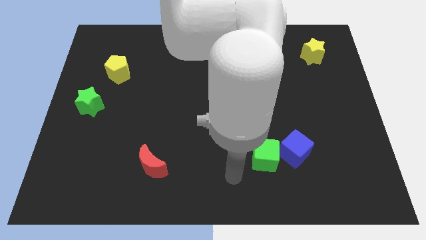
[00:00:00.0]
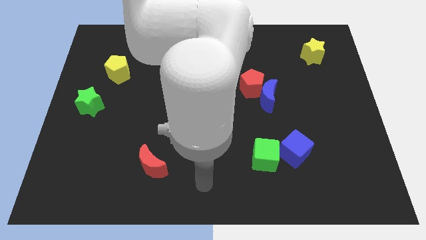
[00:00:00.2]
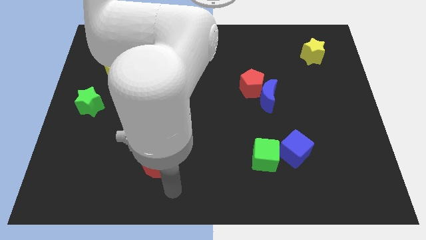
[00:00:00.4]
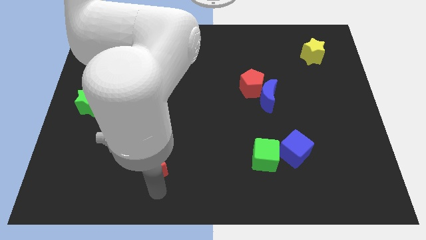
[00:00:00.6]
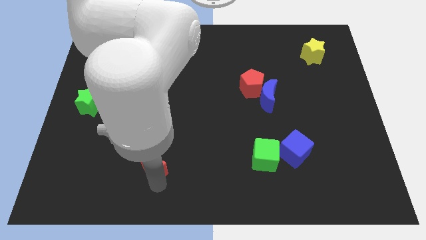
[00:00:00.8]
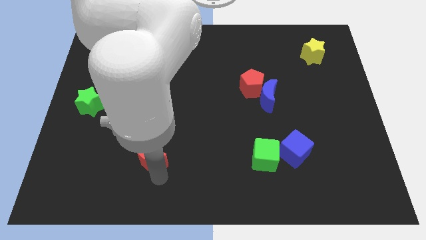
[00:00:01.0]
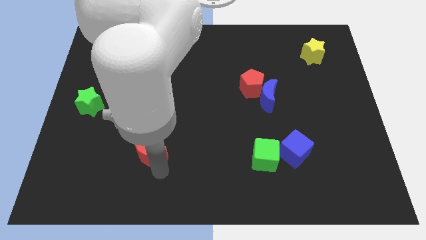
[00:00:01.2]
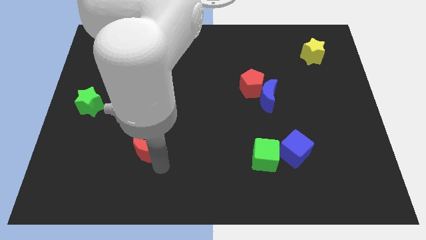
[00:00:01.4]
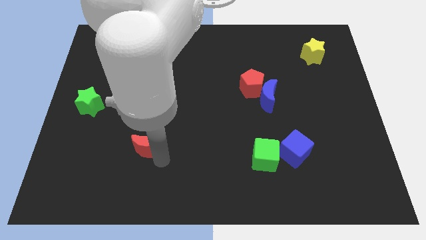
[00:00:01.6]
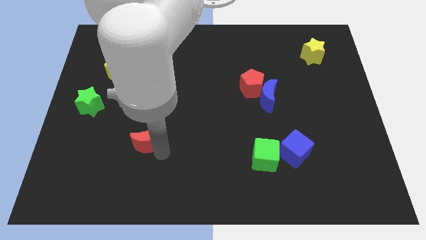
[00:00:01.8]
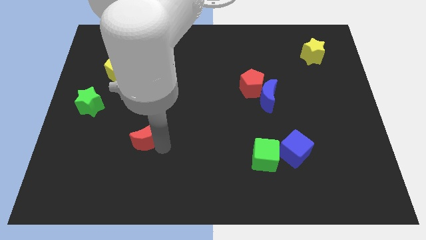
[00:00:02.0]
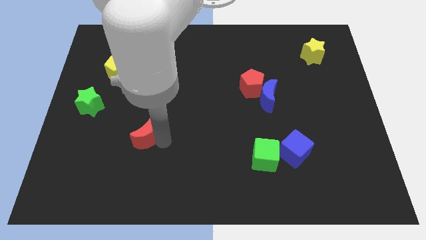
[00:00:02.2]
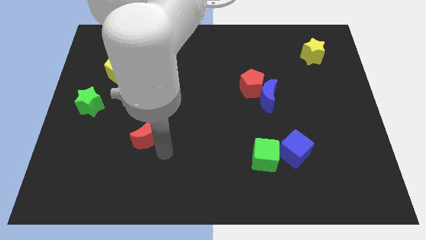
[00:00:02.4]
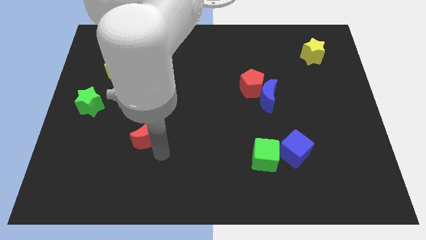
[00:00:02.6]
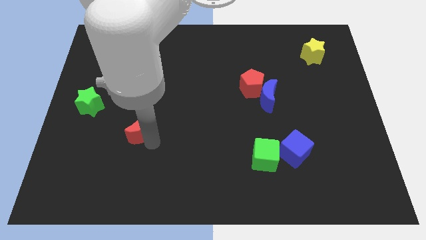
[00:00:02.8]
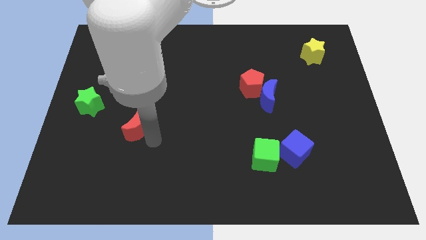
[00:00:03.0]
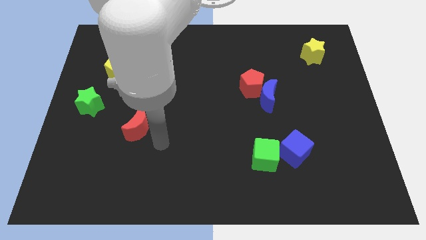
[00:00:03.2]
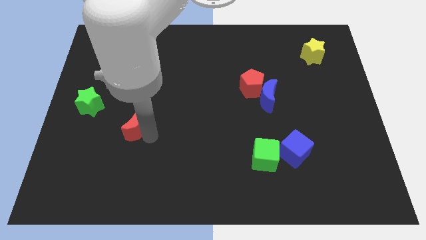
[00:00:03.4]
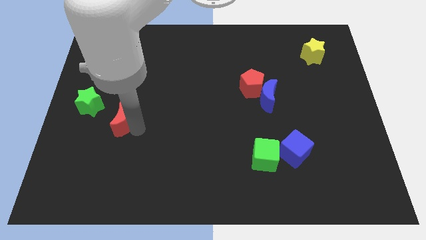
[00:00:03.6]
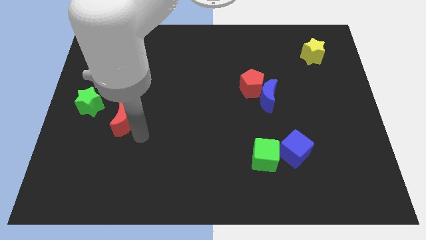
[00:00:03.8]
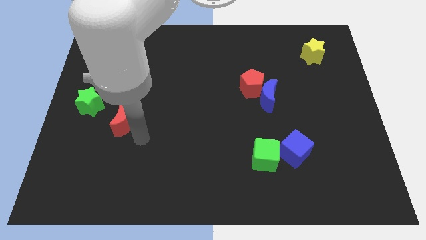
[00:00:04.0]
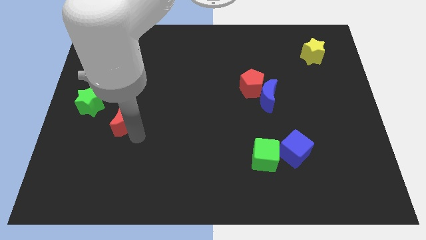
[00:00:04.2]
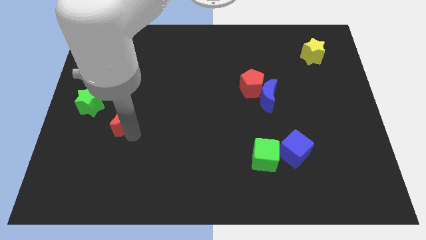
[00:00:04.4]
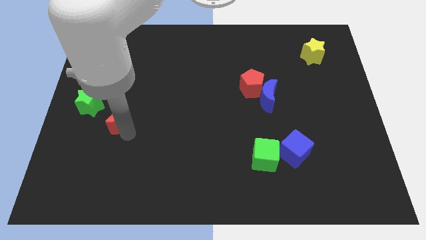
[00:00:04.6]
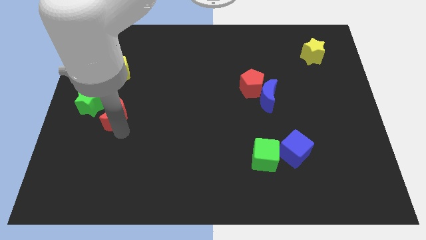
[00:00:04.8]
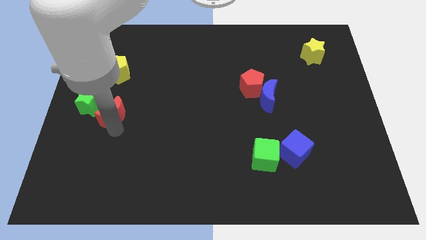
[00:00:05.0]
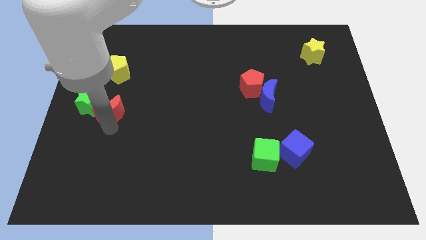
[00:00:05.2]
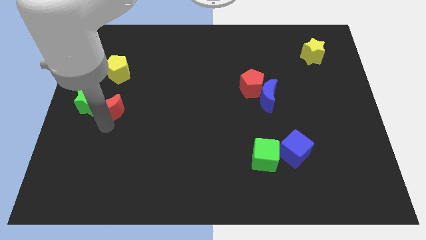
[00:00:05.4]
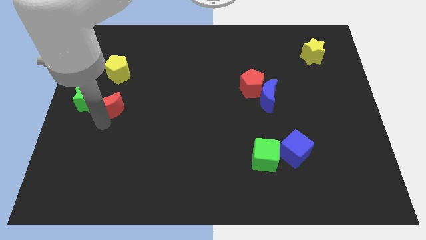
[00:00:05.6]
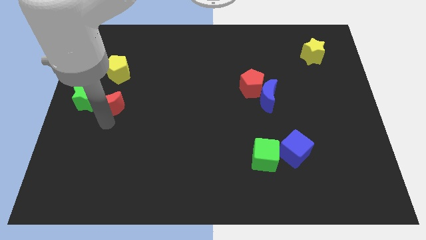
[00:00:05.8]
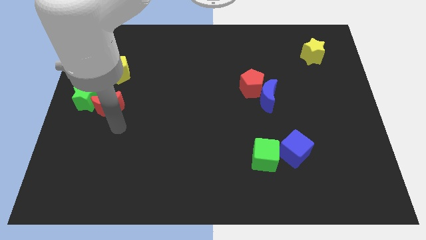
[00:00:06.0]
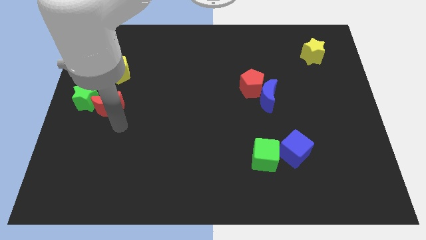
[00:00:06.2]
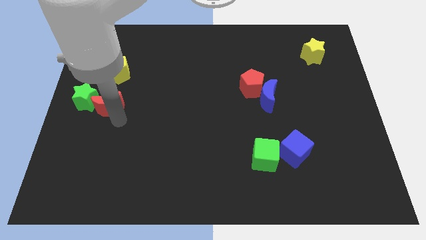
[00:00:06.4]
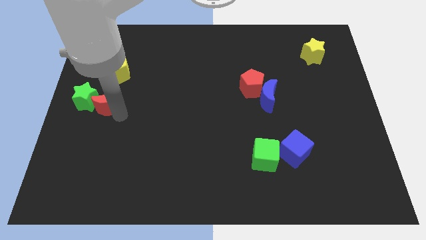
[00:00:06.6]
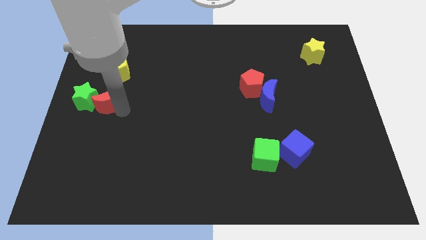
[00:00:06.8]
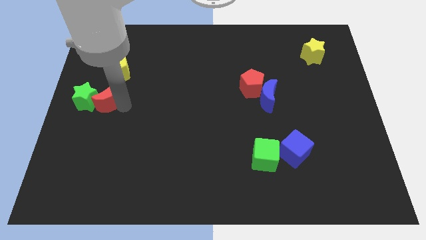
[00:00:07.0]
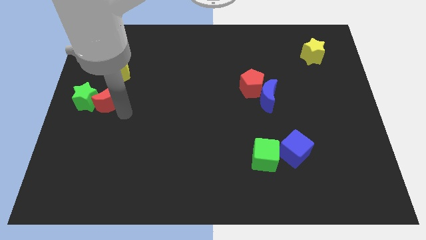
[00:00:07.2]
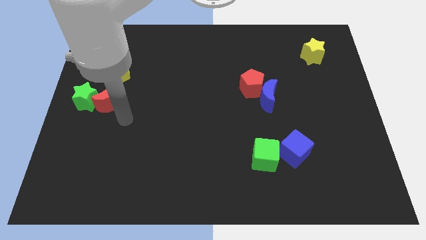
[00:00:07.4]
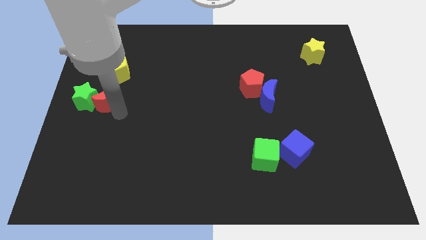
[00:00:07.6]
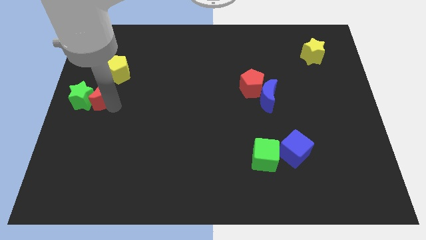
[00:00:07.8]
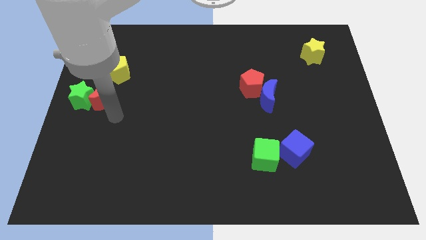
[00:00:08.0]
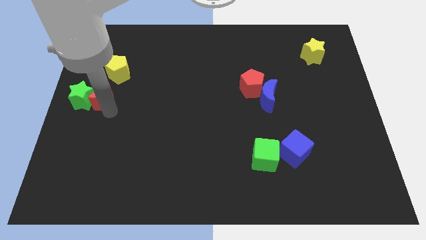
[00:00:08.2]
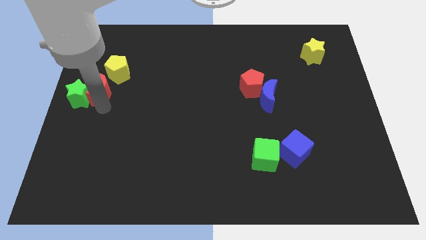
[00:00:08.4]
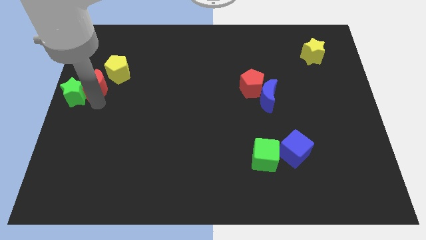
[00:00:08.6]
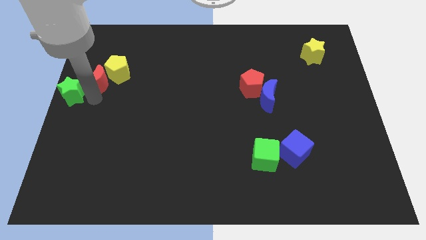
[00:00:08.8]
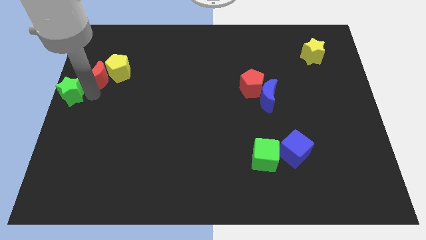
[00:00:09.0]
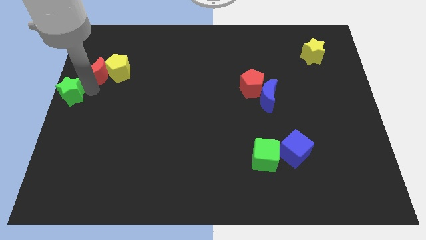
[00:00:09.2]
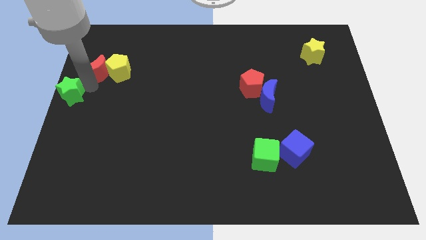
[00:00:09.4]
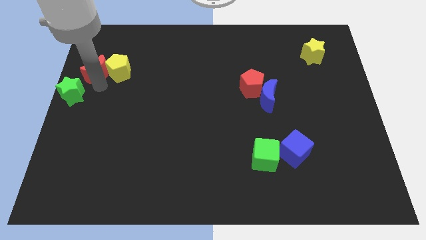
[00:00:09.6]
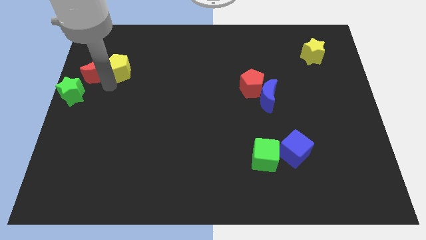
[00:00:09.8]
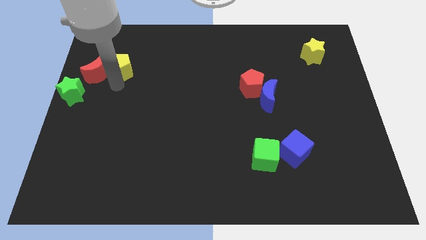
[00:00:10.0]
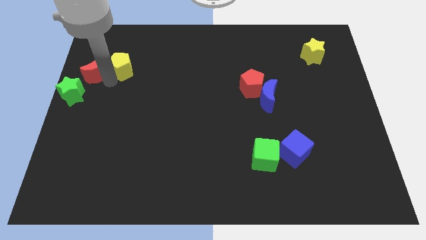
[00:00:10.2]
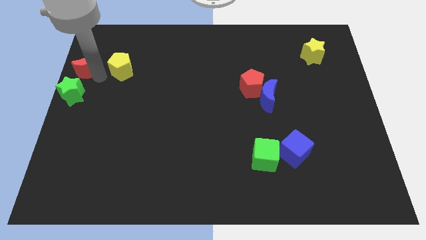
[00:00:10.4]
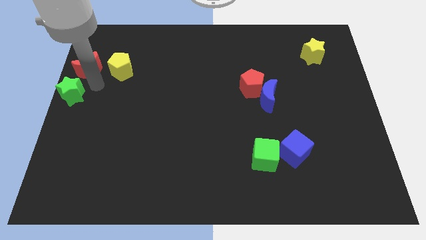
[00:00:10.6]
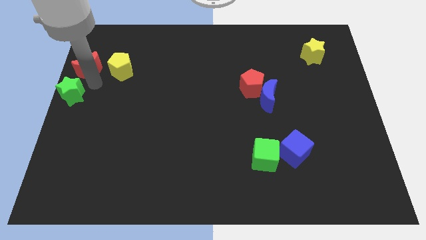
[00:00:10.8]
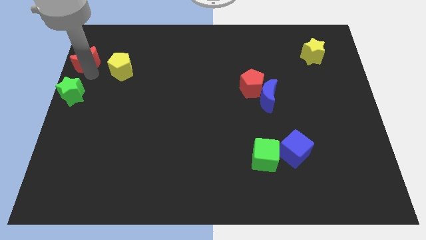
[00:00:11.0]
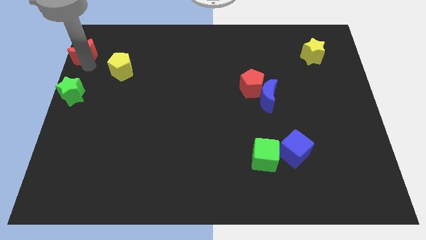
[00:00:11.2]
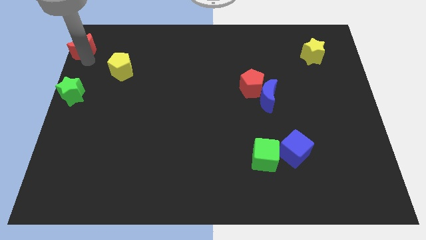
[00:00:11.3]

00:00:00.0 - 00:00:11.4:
slide the red moon to the upper left corner

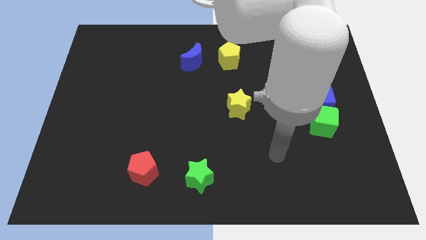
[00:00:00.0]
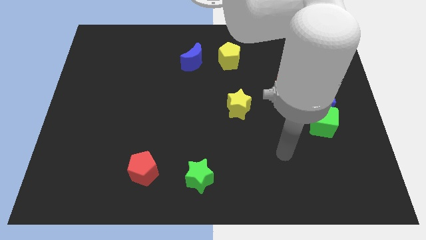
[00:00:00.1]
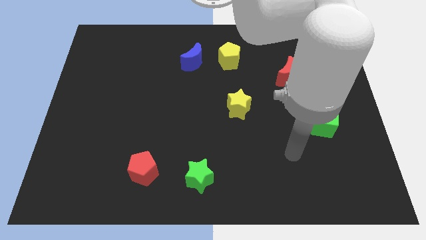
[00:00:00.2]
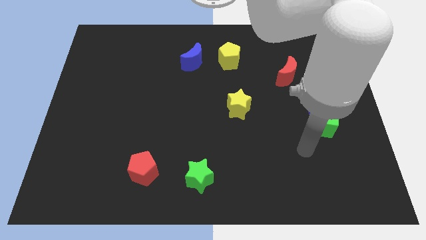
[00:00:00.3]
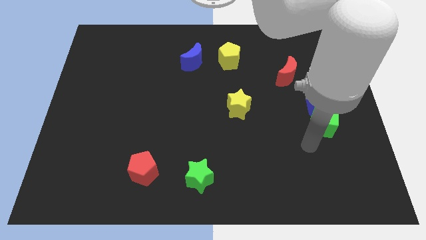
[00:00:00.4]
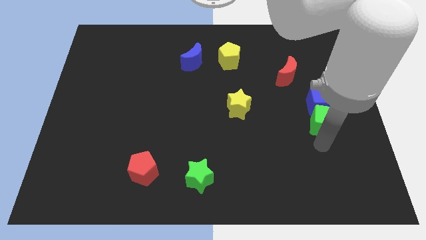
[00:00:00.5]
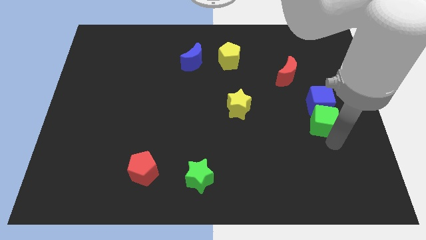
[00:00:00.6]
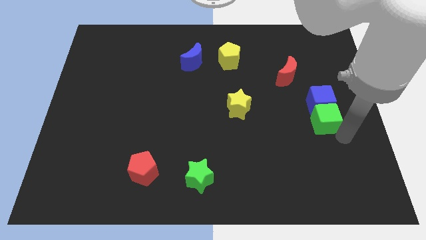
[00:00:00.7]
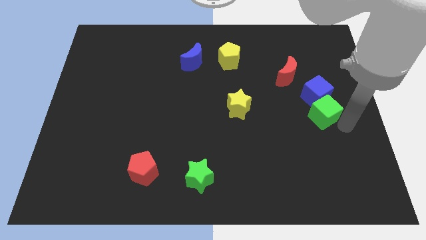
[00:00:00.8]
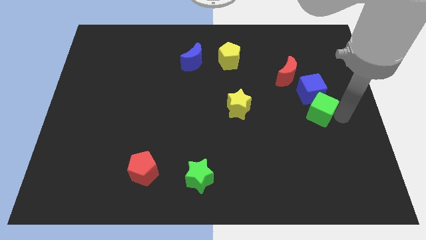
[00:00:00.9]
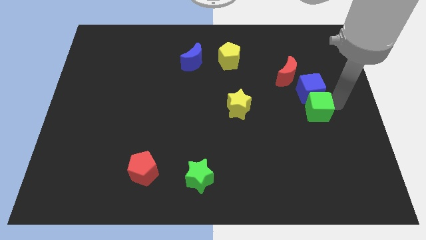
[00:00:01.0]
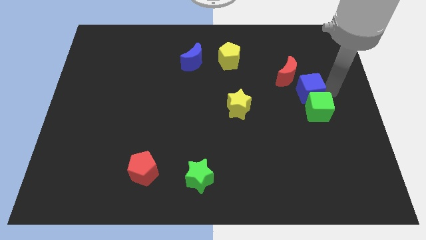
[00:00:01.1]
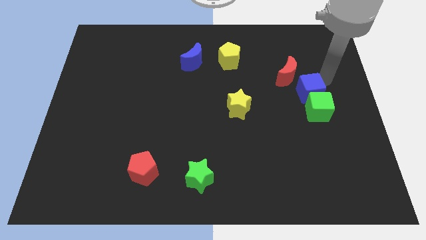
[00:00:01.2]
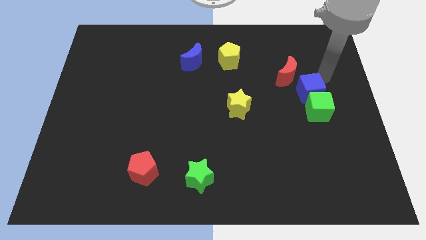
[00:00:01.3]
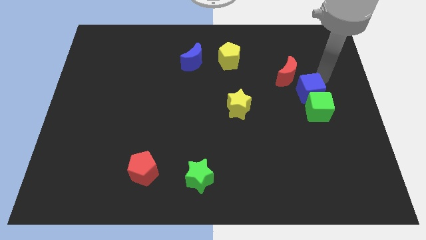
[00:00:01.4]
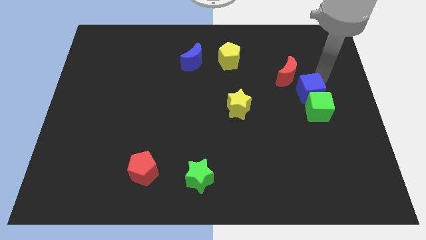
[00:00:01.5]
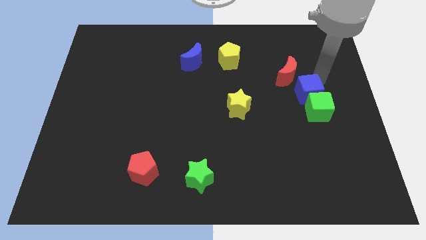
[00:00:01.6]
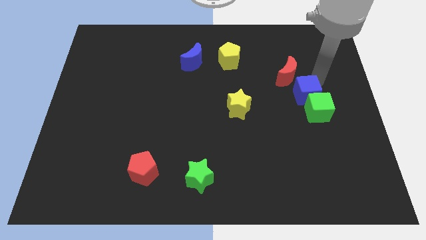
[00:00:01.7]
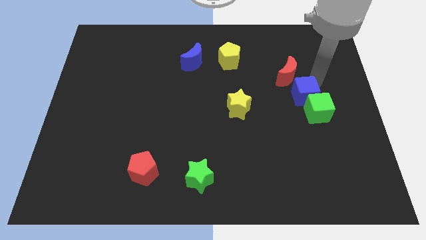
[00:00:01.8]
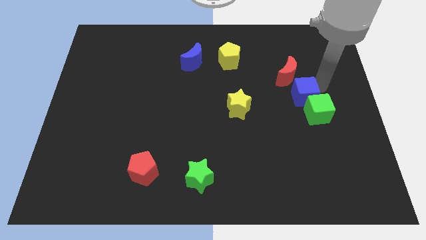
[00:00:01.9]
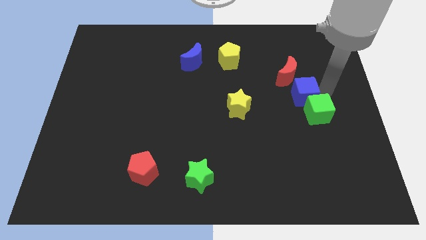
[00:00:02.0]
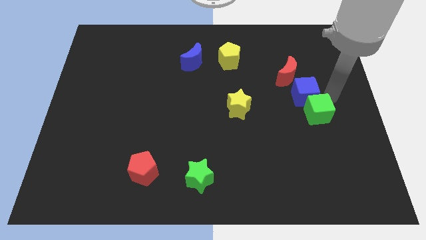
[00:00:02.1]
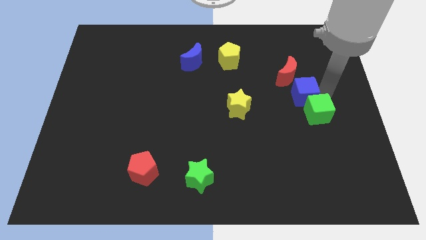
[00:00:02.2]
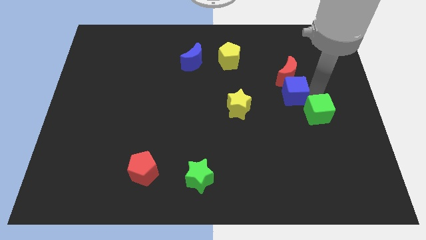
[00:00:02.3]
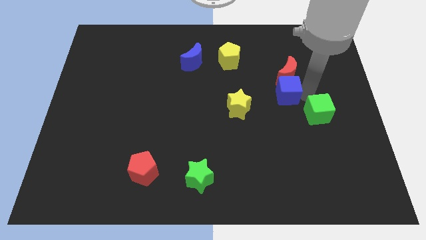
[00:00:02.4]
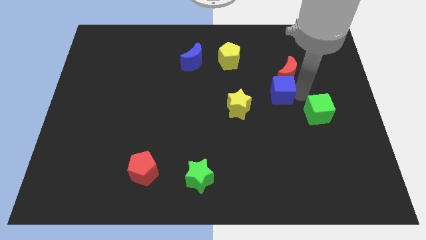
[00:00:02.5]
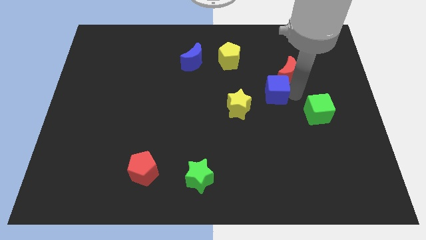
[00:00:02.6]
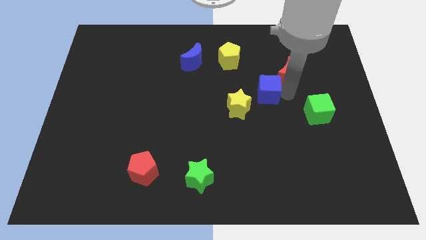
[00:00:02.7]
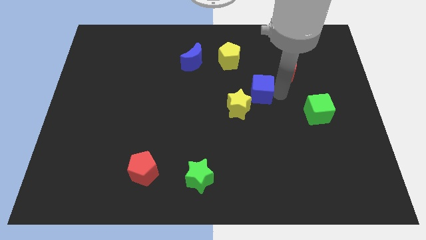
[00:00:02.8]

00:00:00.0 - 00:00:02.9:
move the blue cube to the middle of the board
